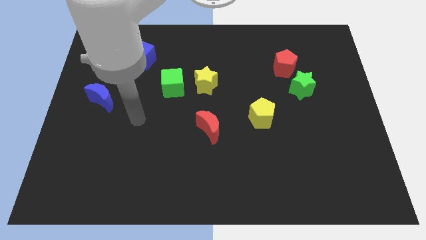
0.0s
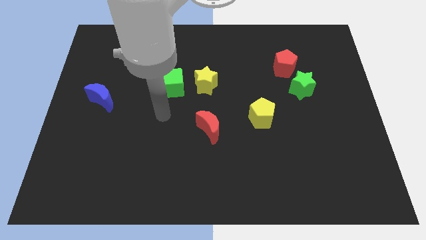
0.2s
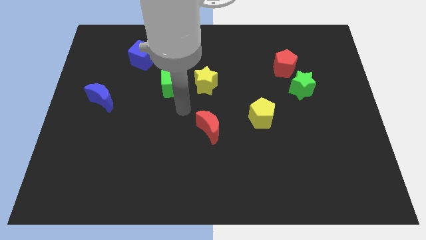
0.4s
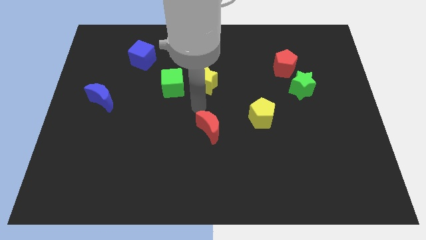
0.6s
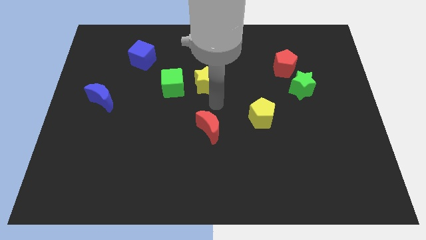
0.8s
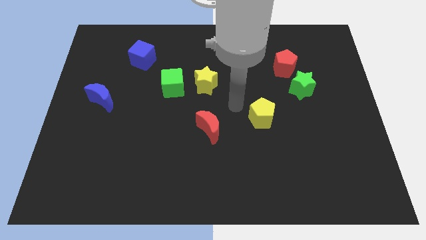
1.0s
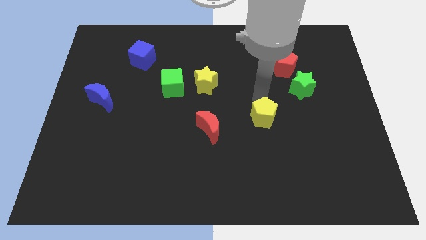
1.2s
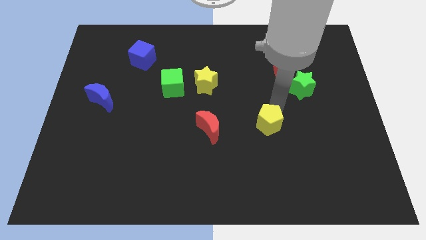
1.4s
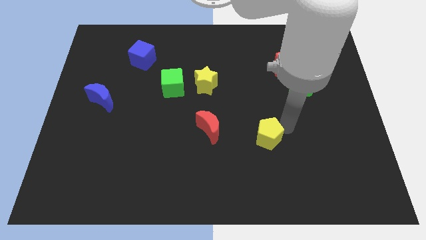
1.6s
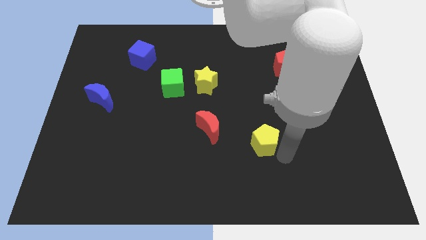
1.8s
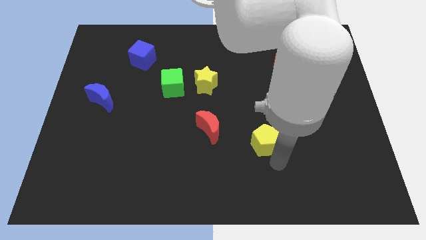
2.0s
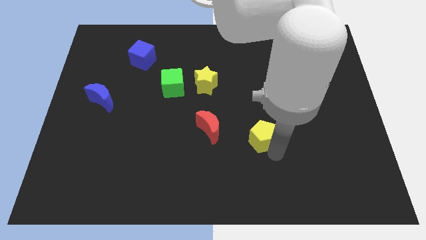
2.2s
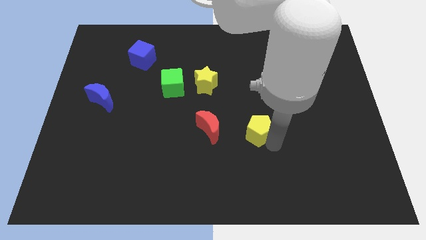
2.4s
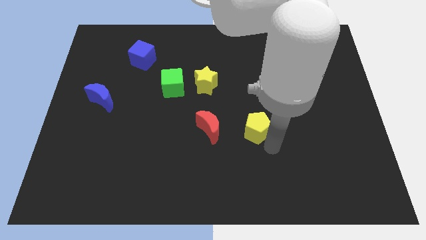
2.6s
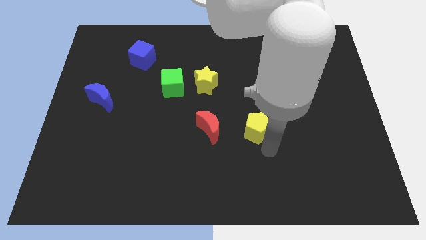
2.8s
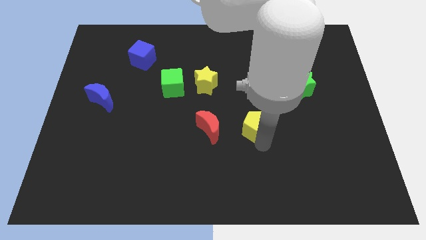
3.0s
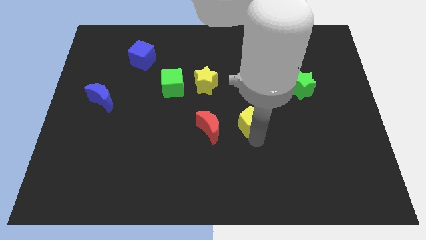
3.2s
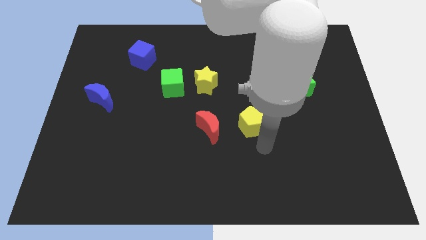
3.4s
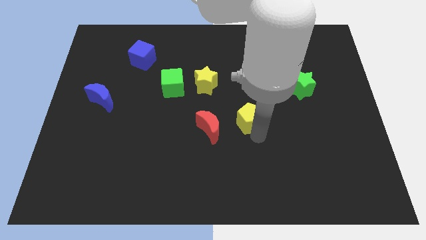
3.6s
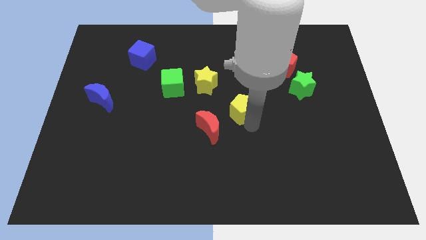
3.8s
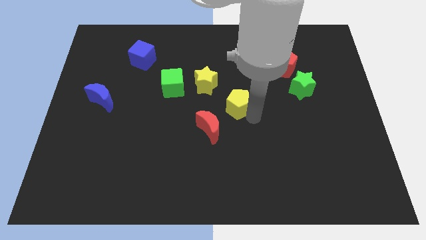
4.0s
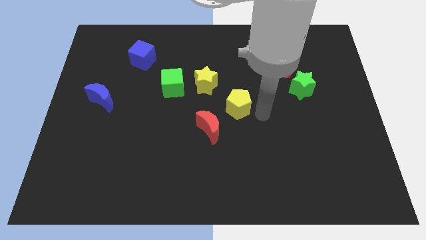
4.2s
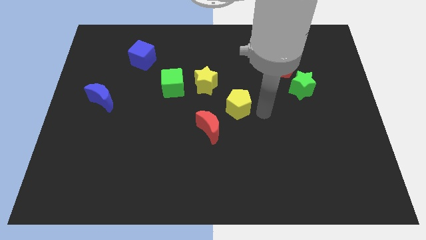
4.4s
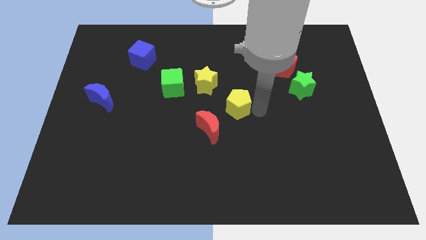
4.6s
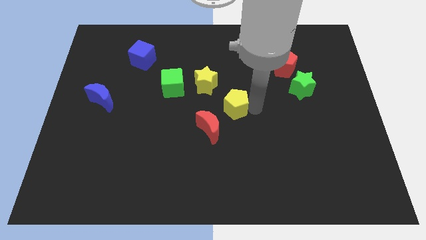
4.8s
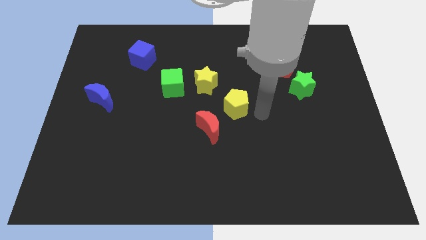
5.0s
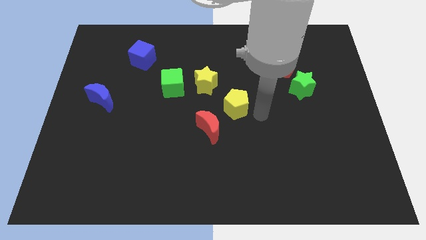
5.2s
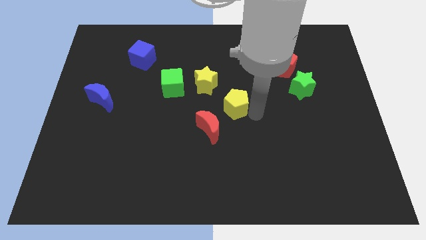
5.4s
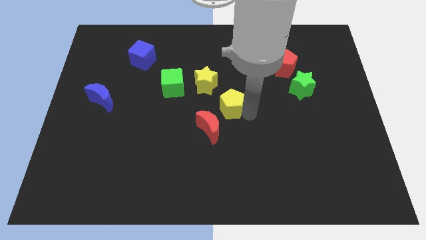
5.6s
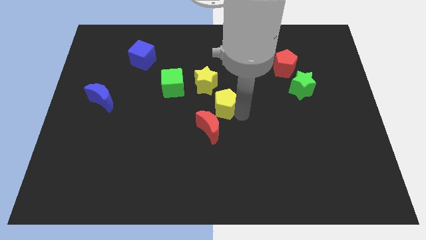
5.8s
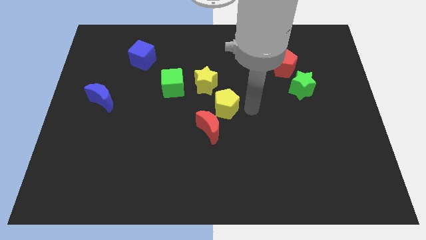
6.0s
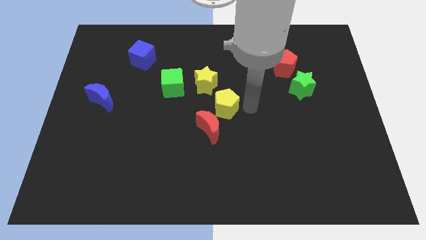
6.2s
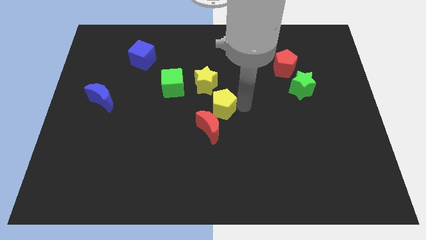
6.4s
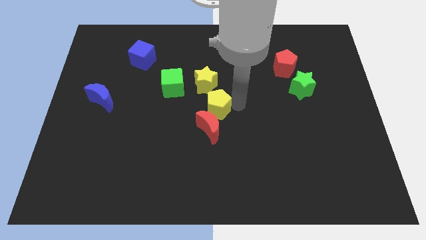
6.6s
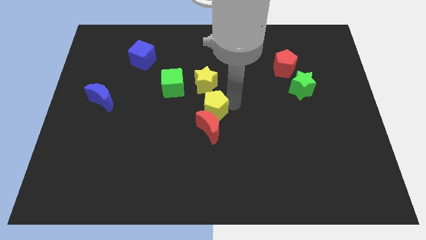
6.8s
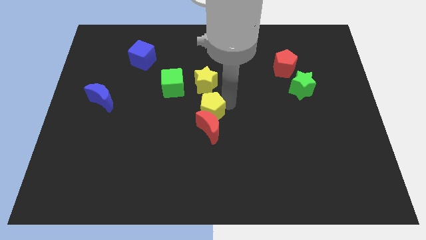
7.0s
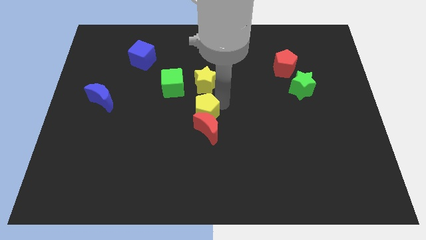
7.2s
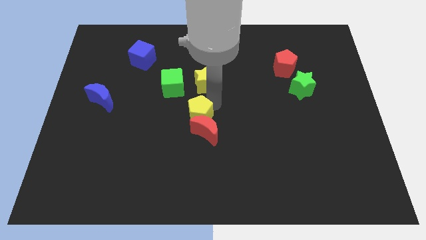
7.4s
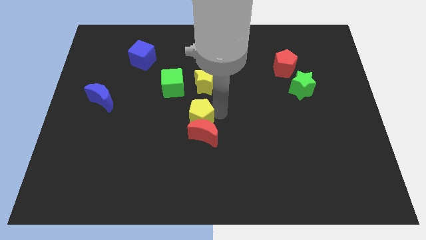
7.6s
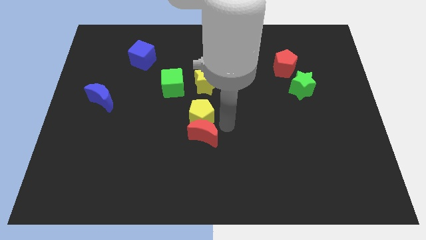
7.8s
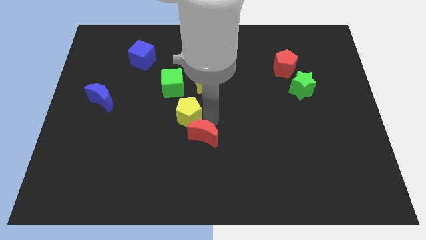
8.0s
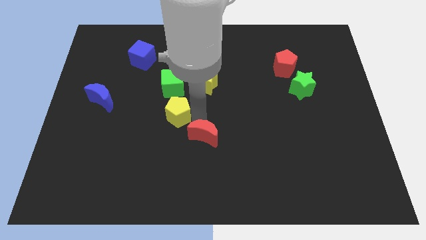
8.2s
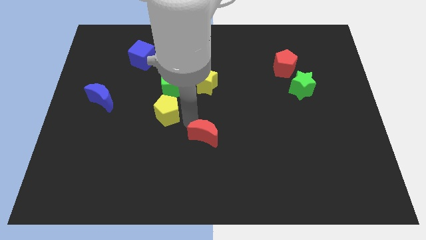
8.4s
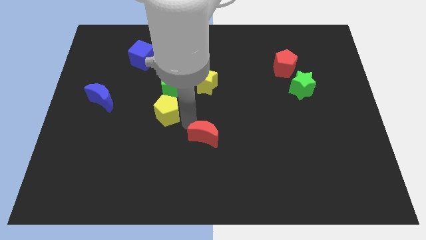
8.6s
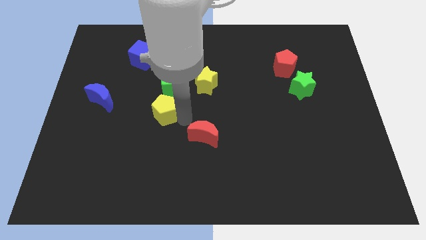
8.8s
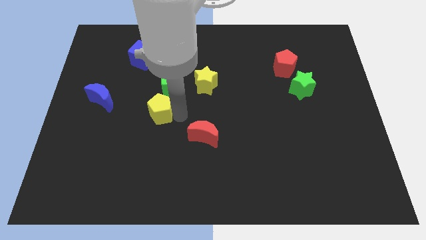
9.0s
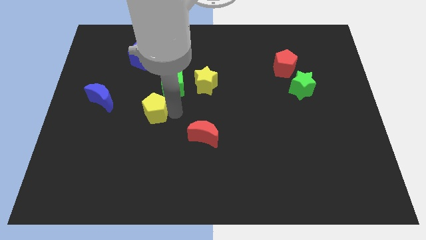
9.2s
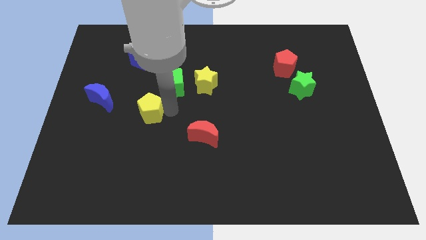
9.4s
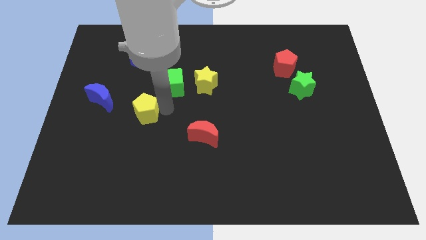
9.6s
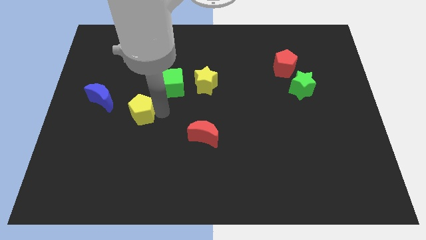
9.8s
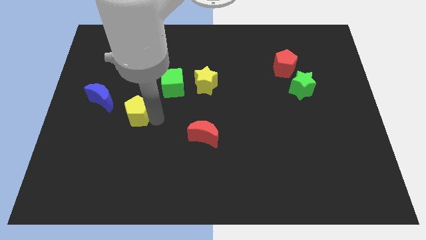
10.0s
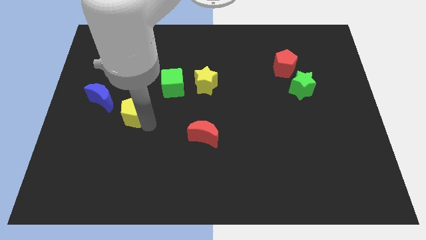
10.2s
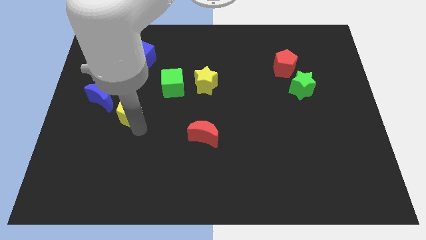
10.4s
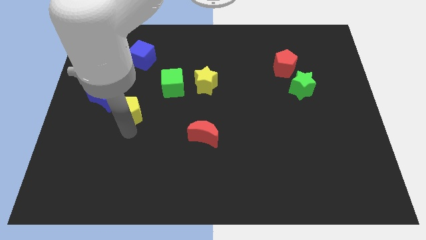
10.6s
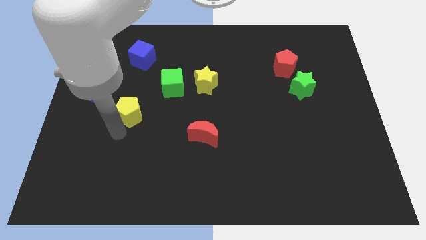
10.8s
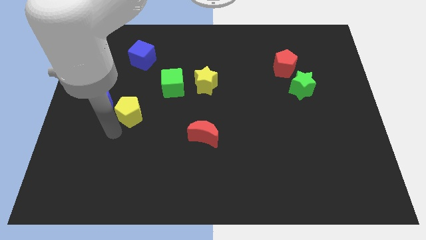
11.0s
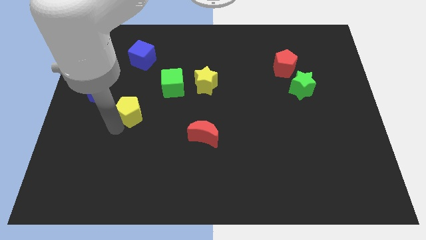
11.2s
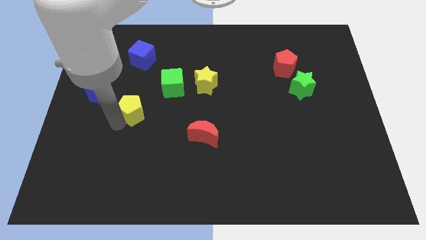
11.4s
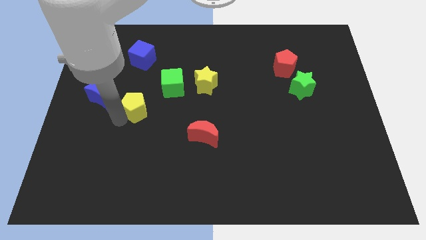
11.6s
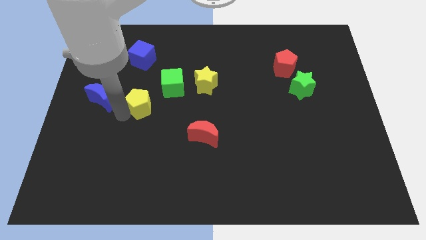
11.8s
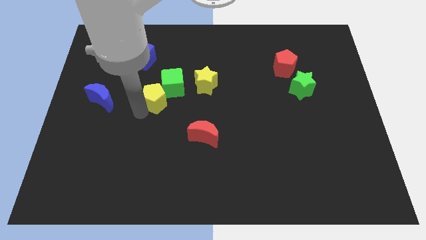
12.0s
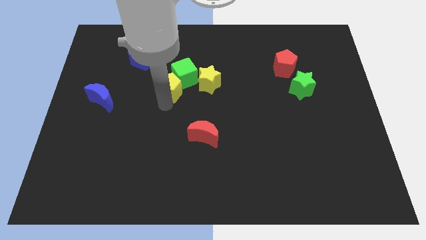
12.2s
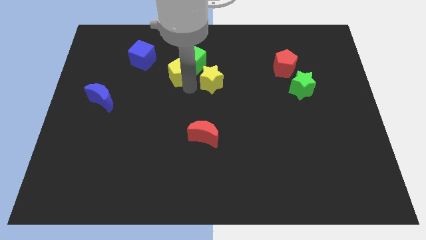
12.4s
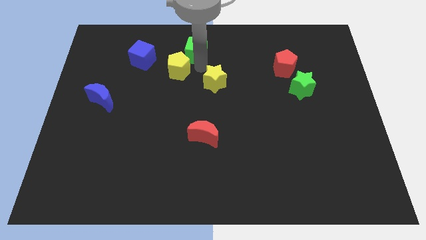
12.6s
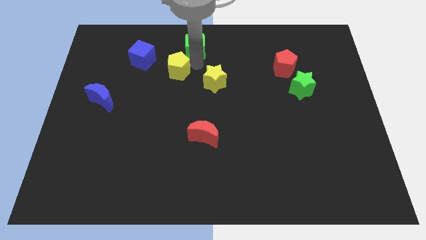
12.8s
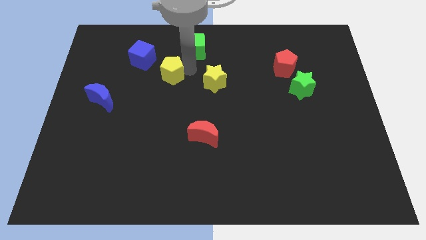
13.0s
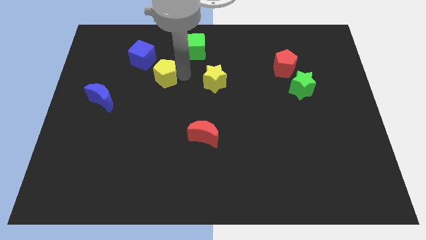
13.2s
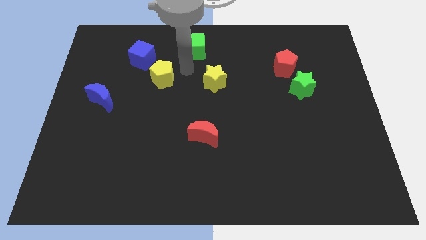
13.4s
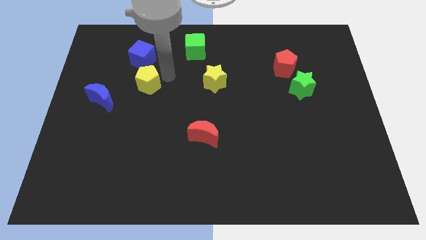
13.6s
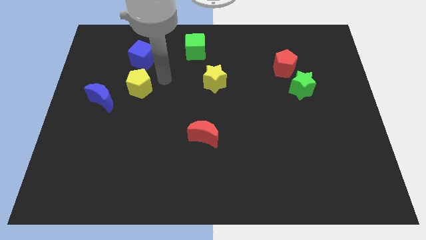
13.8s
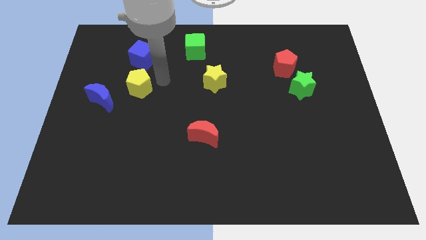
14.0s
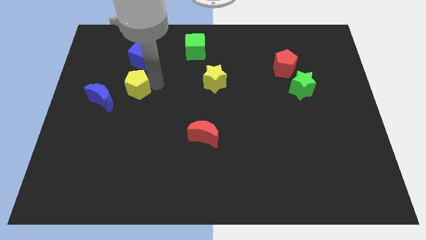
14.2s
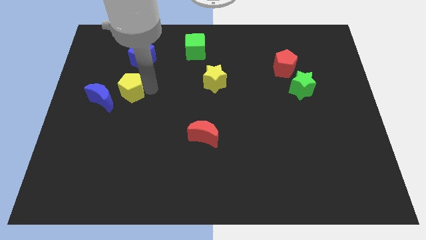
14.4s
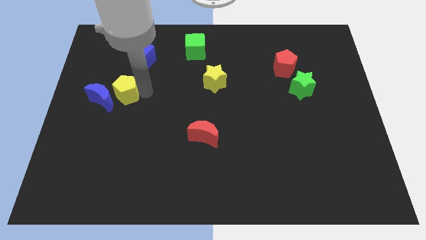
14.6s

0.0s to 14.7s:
move the yellow pentagon next to the blue moon
